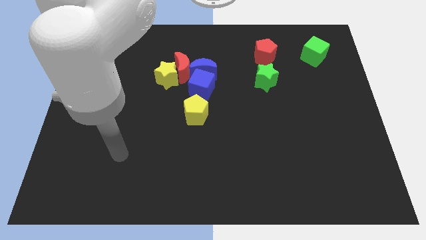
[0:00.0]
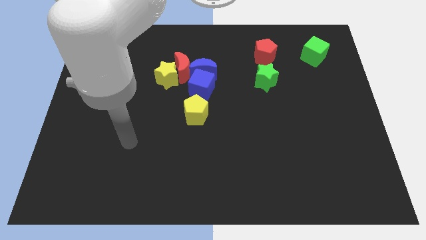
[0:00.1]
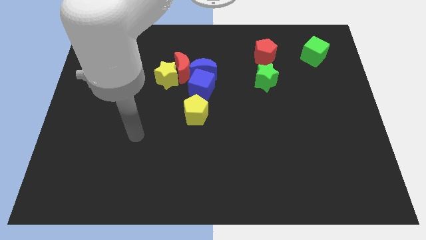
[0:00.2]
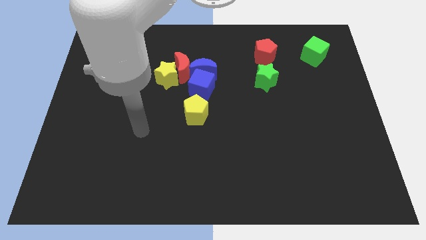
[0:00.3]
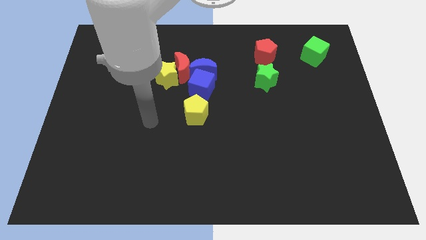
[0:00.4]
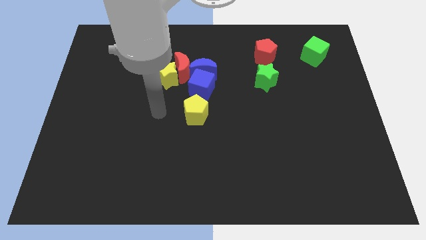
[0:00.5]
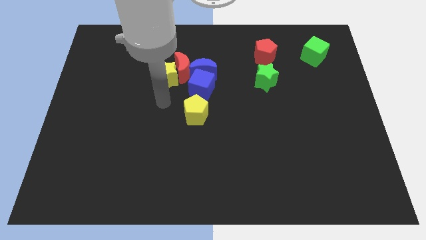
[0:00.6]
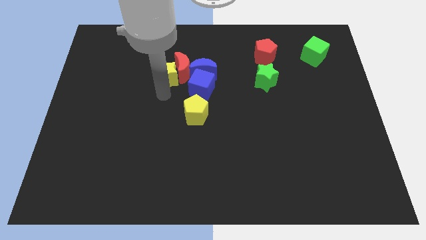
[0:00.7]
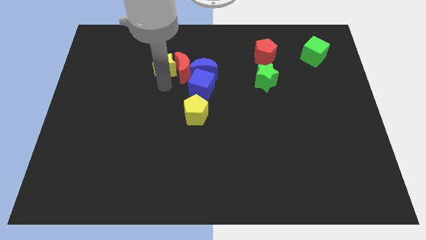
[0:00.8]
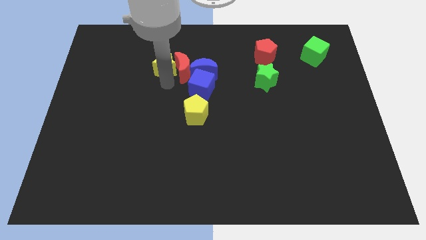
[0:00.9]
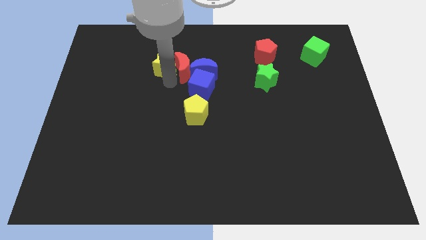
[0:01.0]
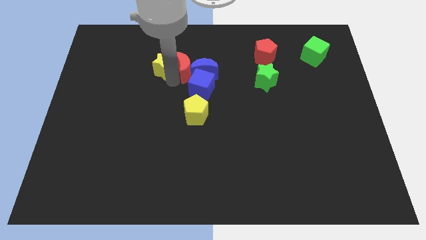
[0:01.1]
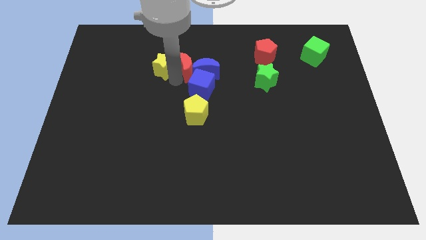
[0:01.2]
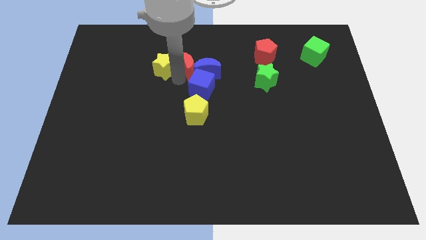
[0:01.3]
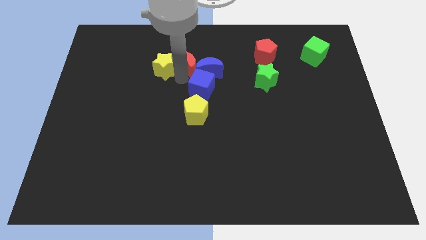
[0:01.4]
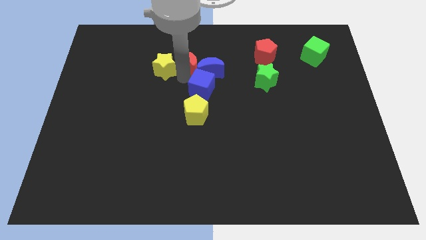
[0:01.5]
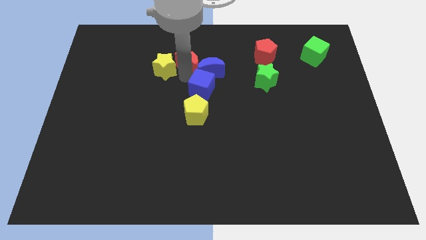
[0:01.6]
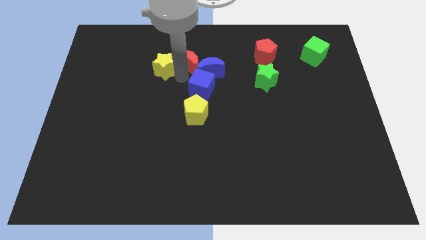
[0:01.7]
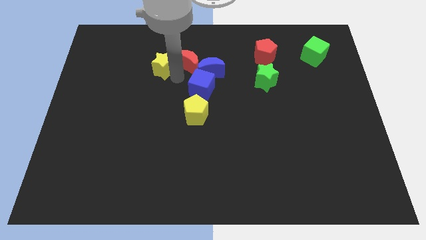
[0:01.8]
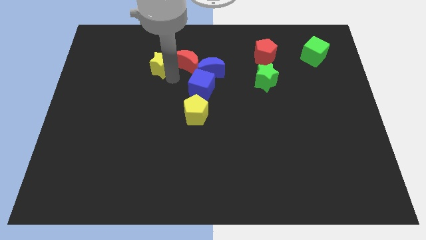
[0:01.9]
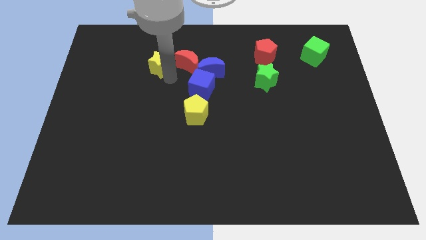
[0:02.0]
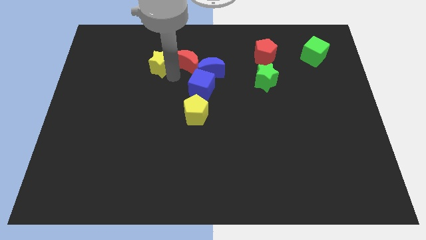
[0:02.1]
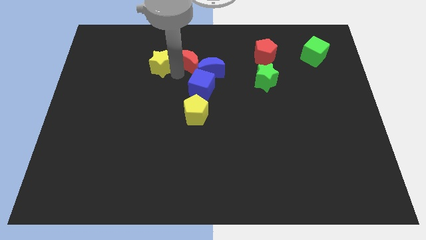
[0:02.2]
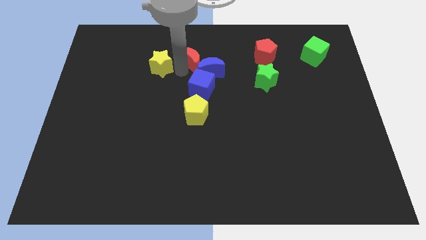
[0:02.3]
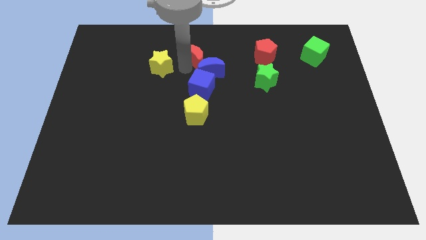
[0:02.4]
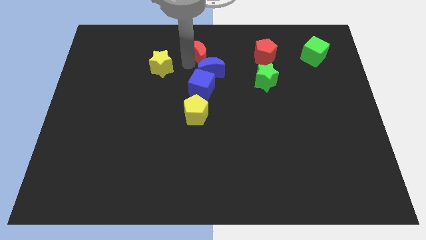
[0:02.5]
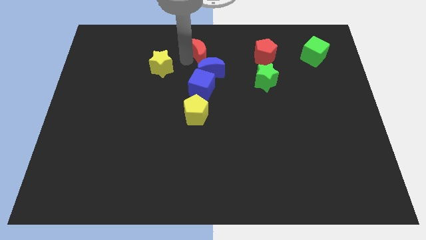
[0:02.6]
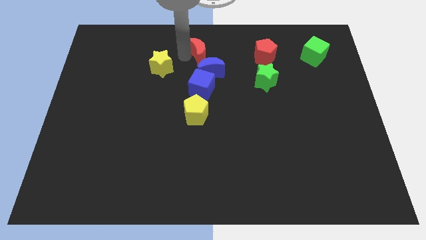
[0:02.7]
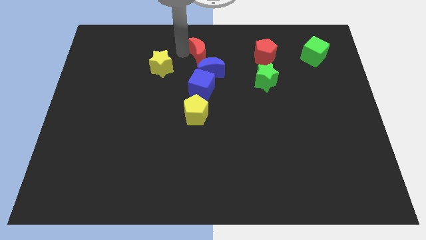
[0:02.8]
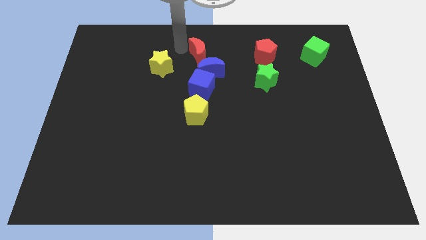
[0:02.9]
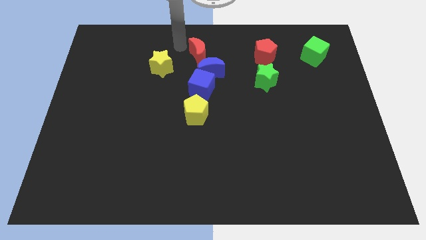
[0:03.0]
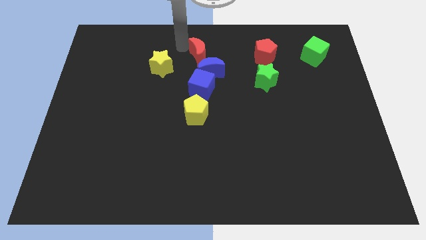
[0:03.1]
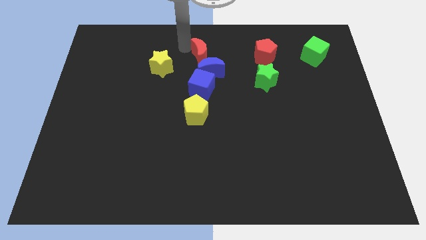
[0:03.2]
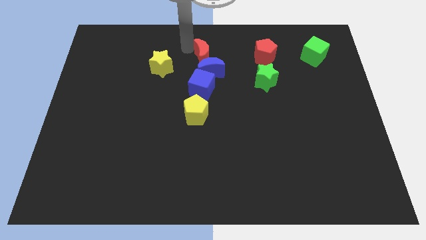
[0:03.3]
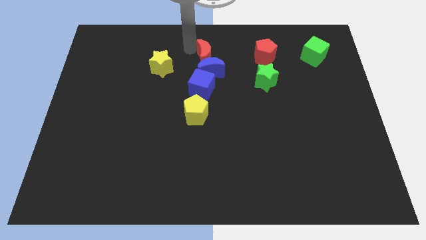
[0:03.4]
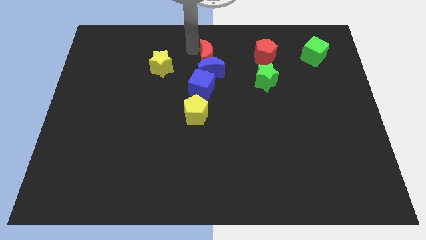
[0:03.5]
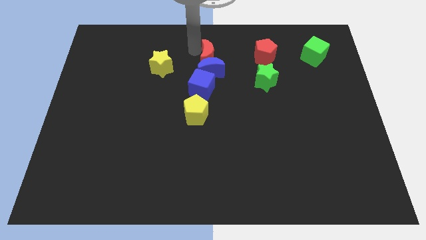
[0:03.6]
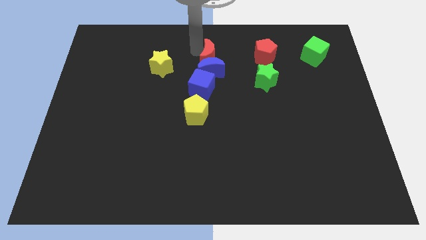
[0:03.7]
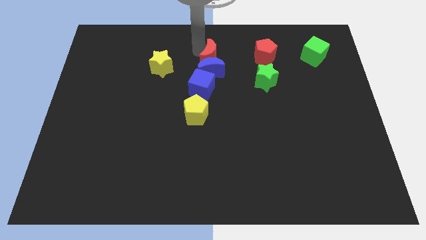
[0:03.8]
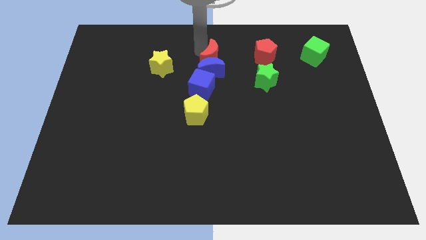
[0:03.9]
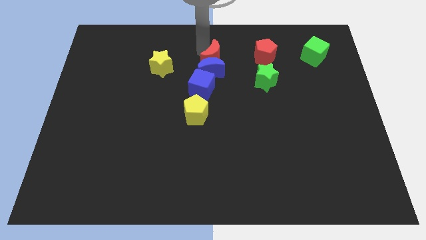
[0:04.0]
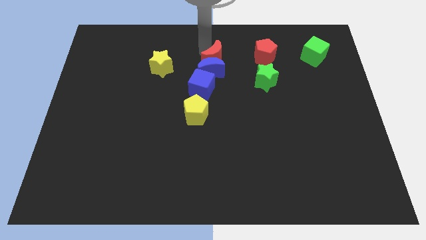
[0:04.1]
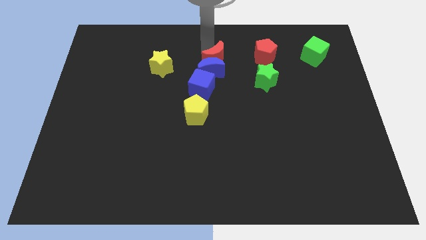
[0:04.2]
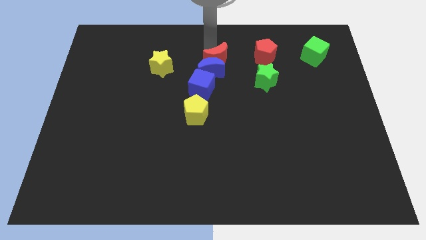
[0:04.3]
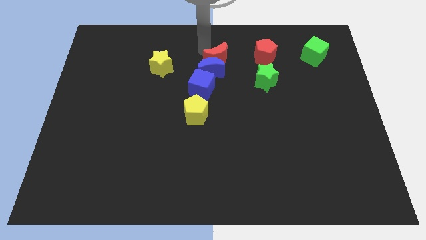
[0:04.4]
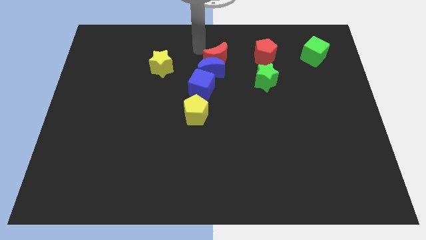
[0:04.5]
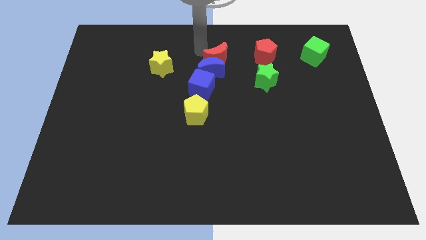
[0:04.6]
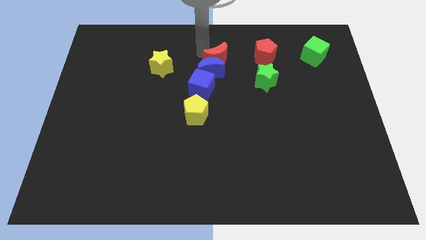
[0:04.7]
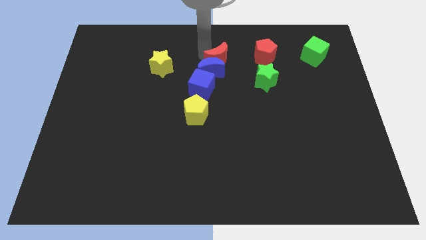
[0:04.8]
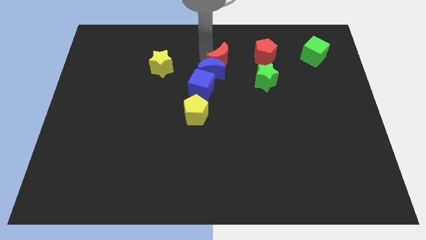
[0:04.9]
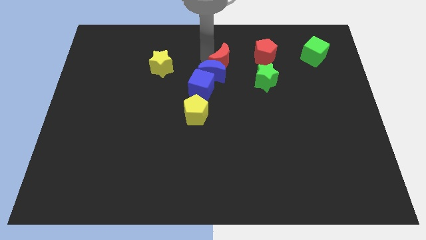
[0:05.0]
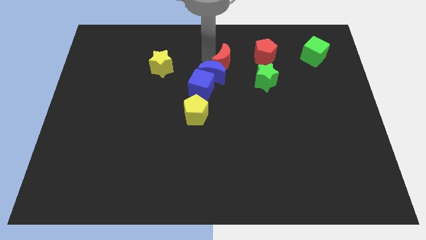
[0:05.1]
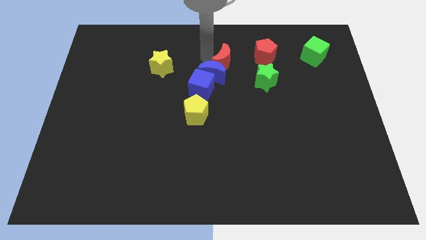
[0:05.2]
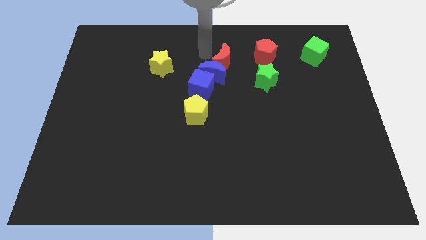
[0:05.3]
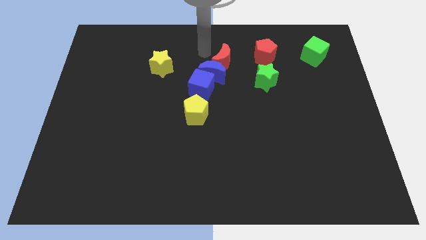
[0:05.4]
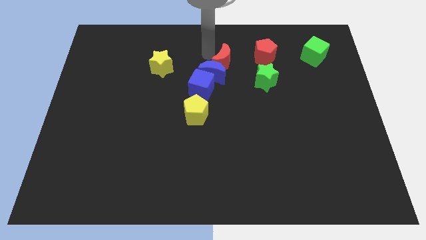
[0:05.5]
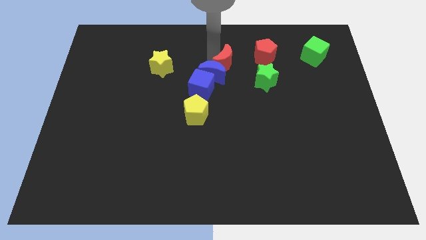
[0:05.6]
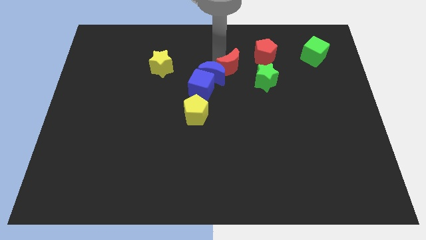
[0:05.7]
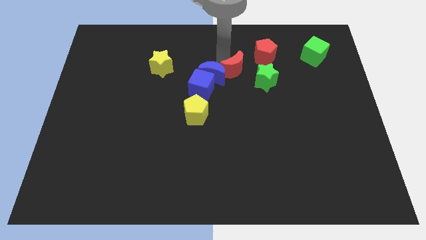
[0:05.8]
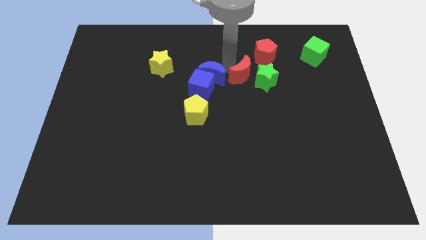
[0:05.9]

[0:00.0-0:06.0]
push the red moon close to the green star

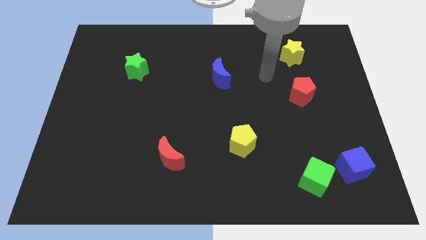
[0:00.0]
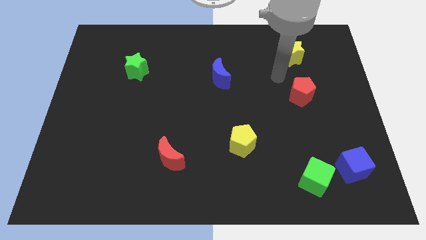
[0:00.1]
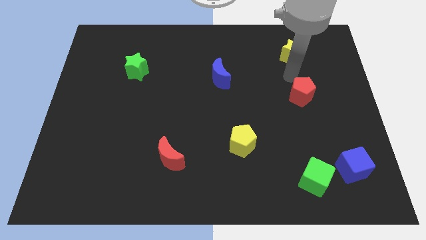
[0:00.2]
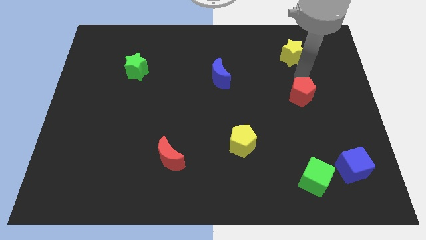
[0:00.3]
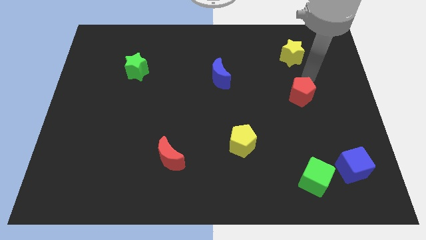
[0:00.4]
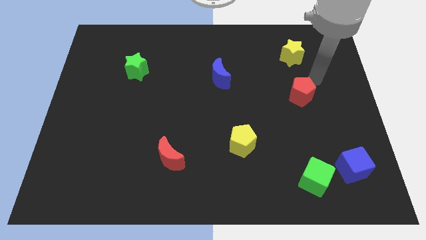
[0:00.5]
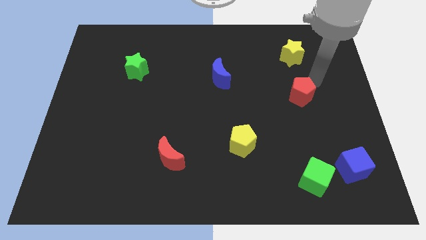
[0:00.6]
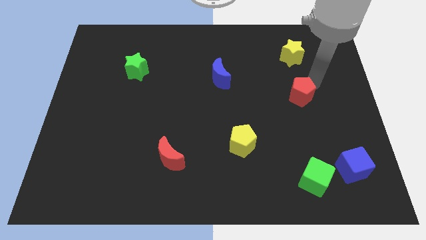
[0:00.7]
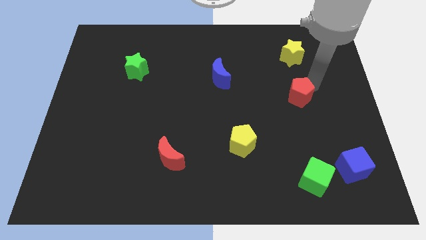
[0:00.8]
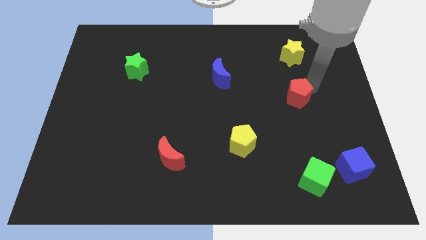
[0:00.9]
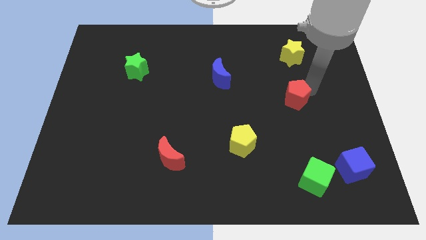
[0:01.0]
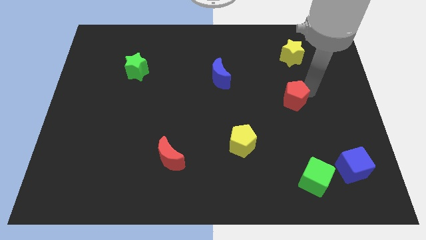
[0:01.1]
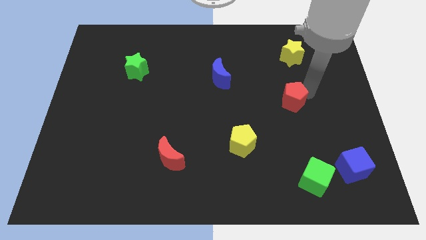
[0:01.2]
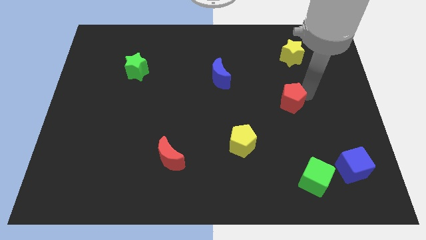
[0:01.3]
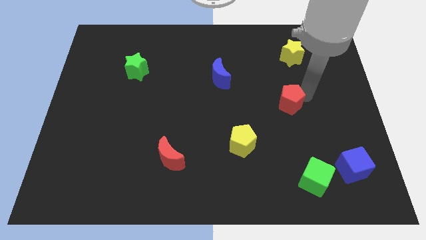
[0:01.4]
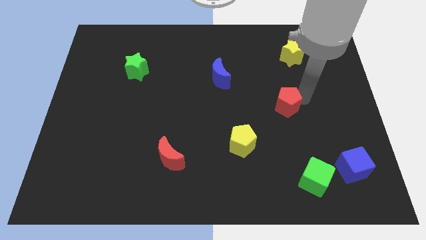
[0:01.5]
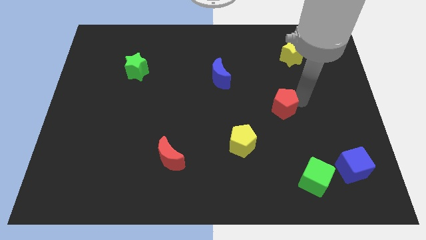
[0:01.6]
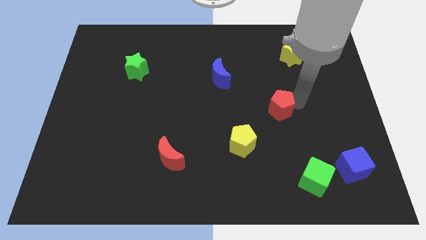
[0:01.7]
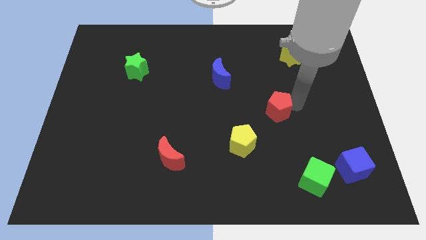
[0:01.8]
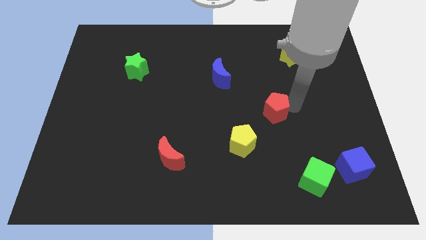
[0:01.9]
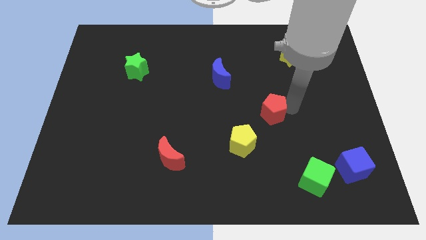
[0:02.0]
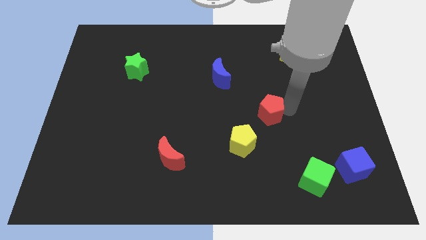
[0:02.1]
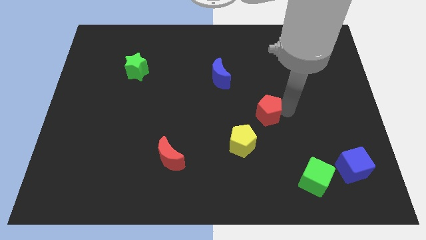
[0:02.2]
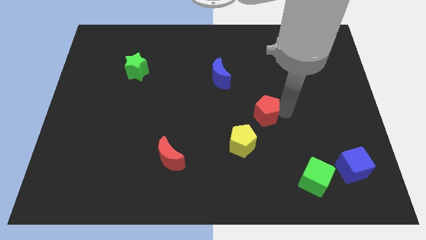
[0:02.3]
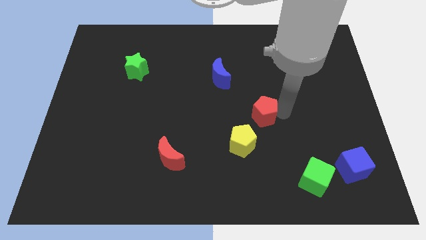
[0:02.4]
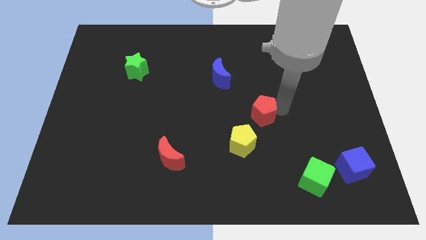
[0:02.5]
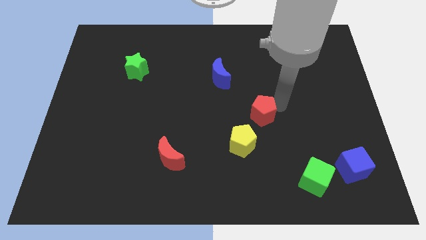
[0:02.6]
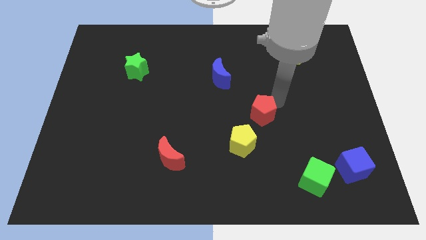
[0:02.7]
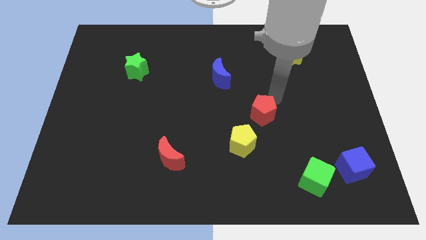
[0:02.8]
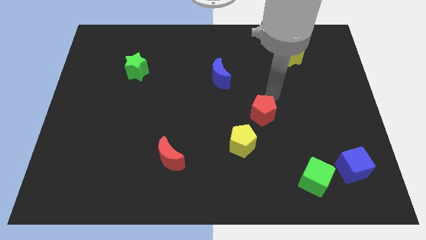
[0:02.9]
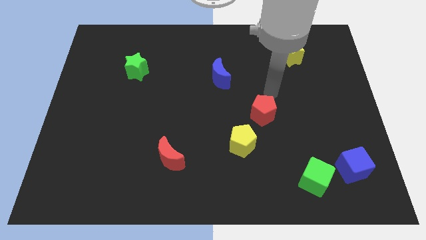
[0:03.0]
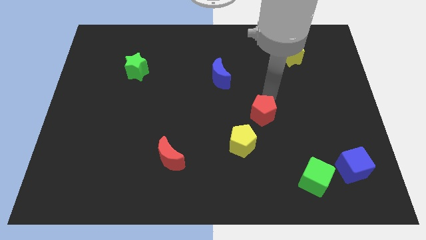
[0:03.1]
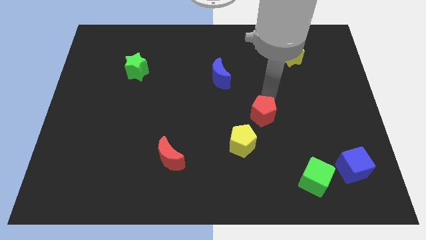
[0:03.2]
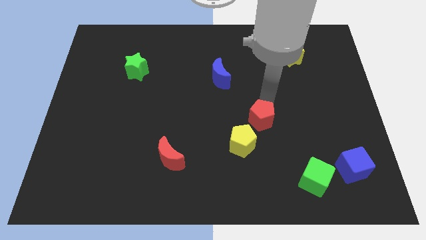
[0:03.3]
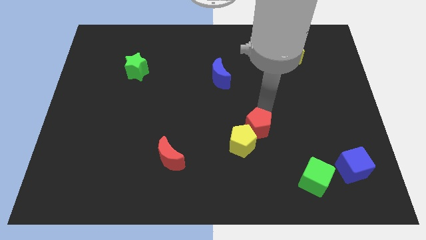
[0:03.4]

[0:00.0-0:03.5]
slide the red pentagon to the yellow pentagon
